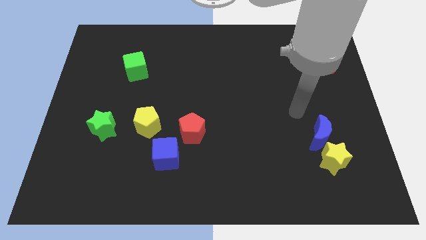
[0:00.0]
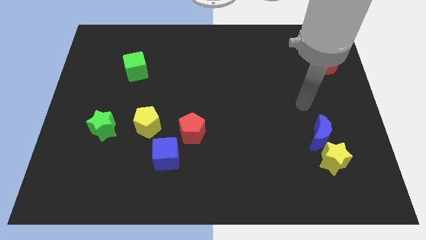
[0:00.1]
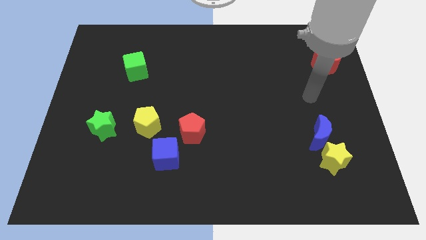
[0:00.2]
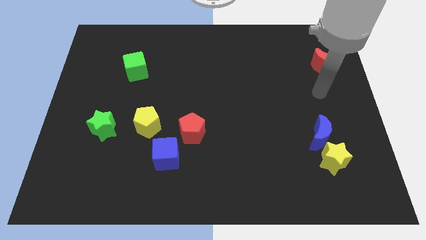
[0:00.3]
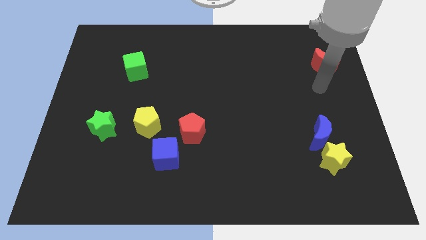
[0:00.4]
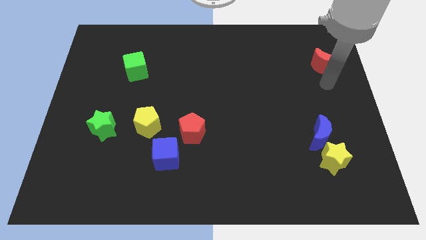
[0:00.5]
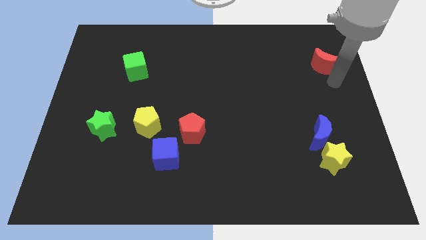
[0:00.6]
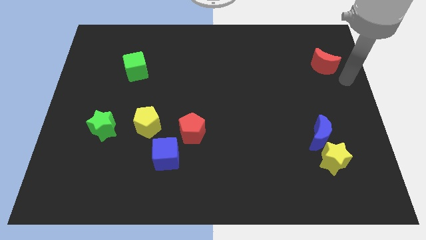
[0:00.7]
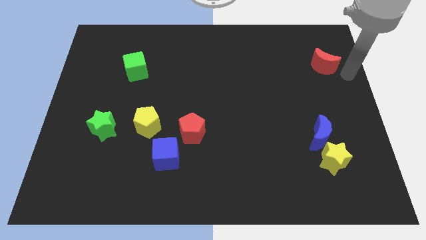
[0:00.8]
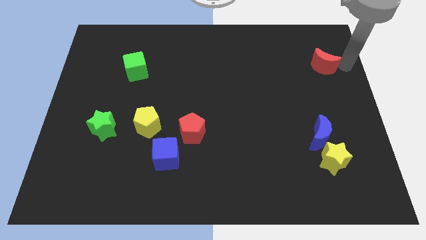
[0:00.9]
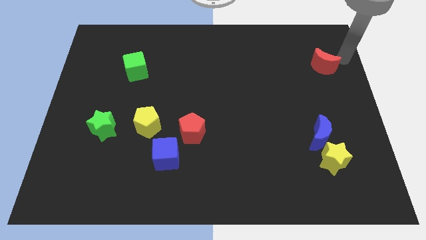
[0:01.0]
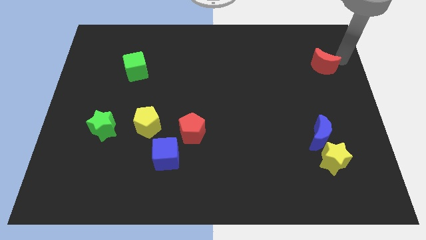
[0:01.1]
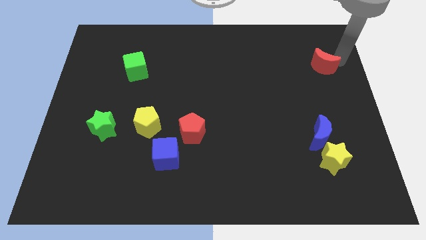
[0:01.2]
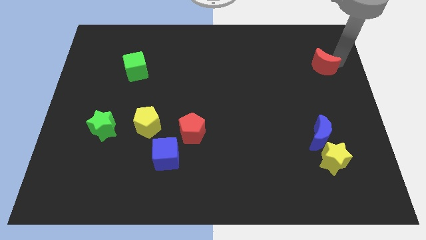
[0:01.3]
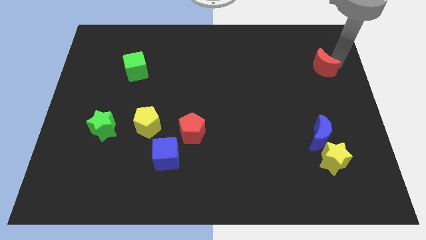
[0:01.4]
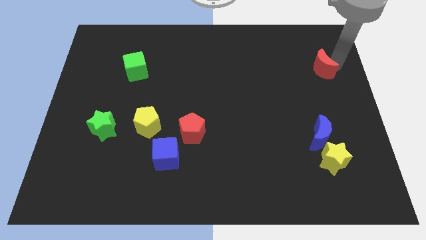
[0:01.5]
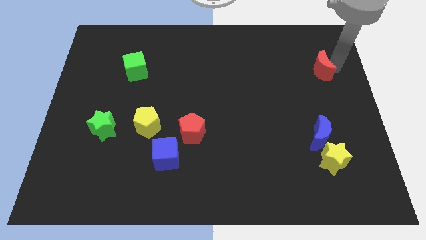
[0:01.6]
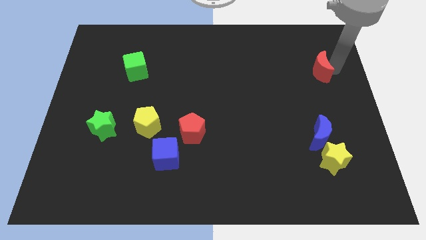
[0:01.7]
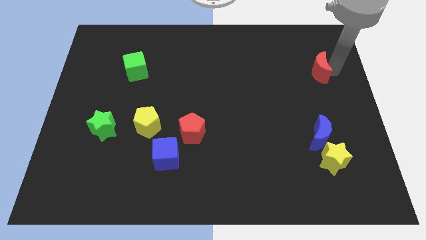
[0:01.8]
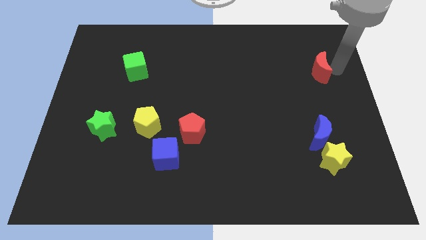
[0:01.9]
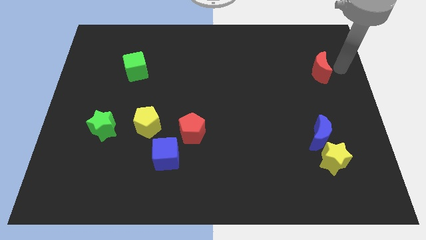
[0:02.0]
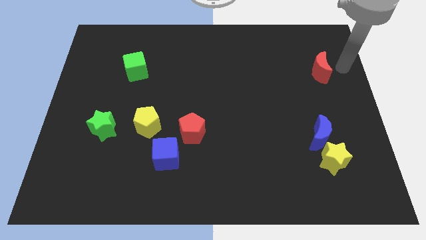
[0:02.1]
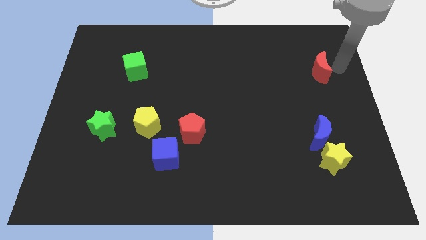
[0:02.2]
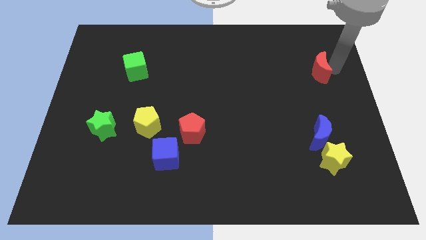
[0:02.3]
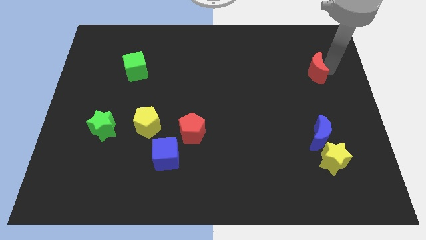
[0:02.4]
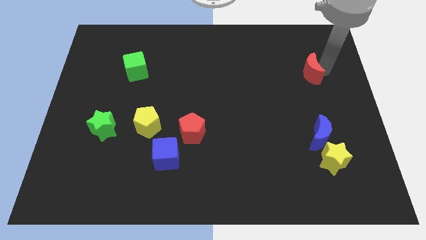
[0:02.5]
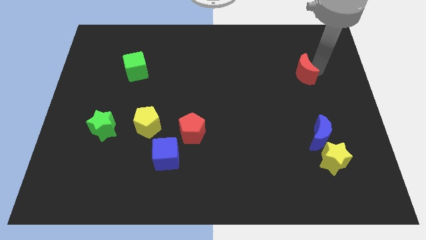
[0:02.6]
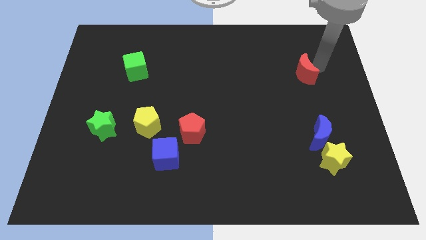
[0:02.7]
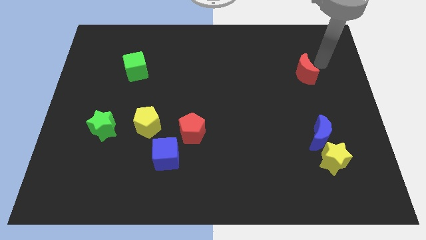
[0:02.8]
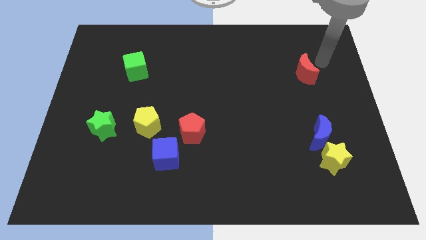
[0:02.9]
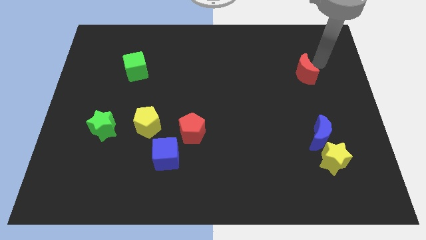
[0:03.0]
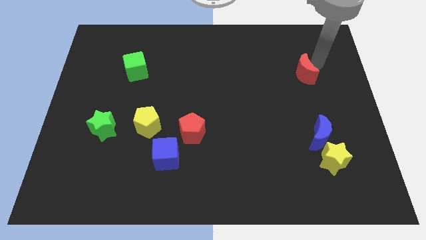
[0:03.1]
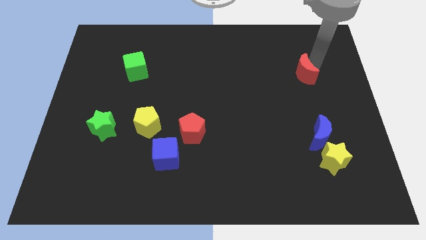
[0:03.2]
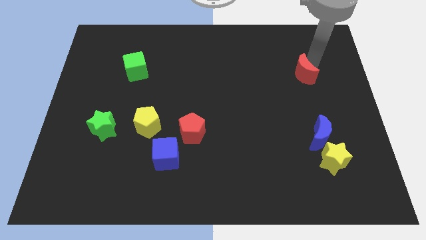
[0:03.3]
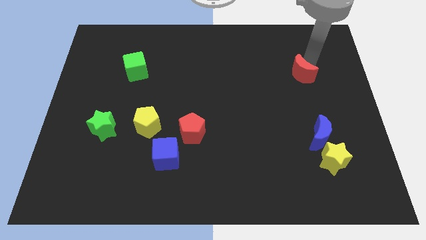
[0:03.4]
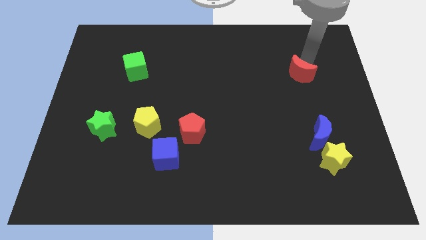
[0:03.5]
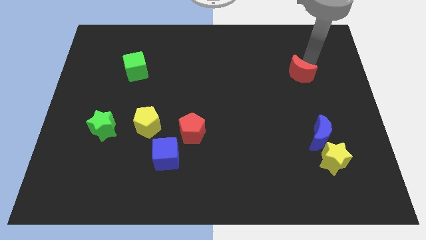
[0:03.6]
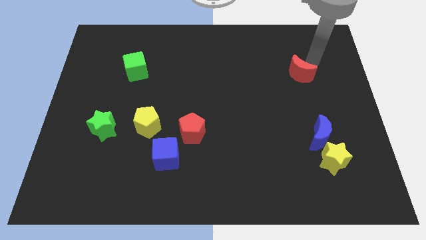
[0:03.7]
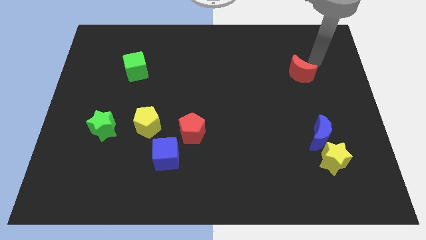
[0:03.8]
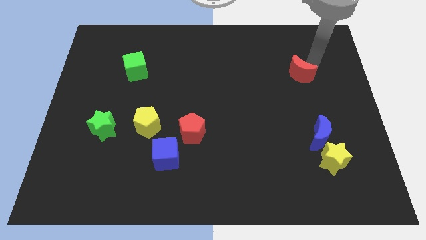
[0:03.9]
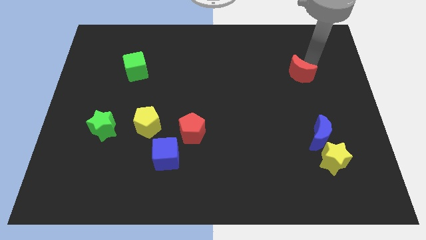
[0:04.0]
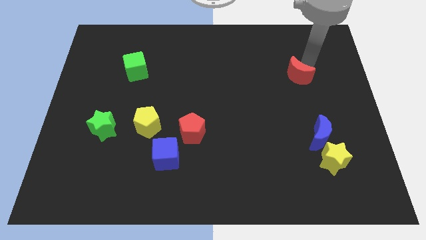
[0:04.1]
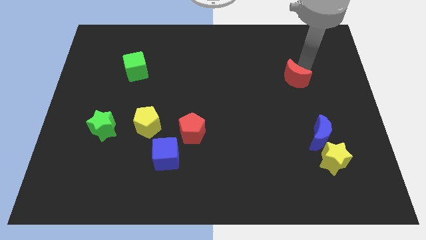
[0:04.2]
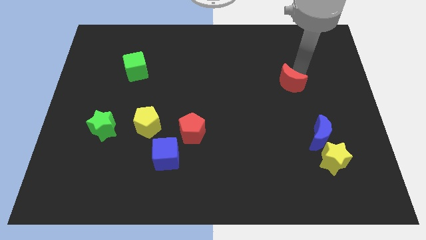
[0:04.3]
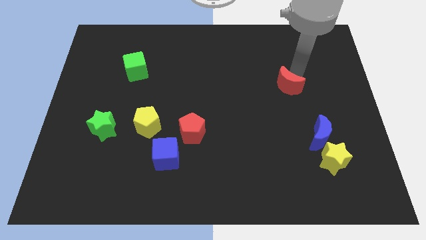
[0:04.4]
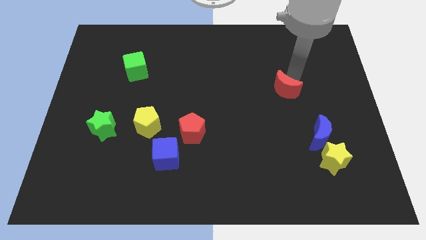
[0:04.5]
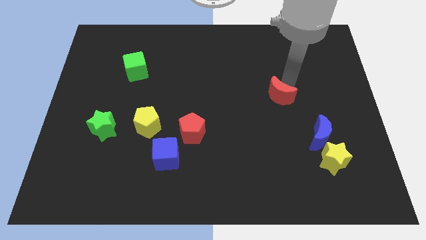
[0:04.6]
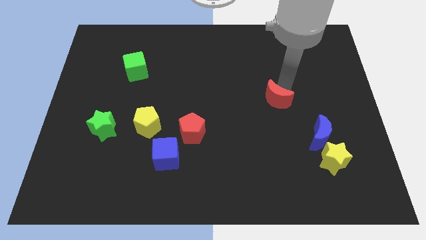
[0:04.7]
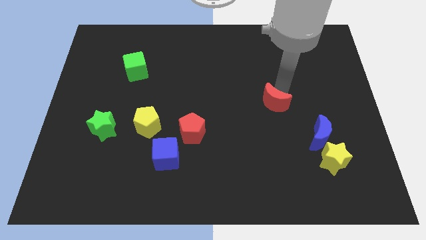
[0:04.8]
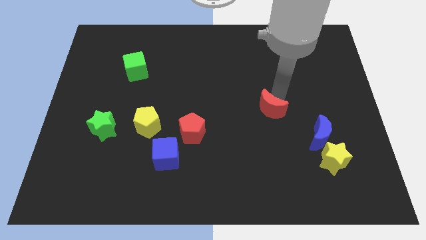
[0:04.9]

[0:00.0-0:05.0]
slide the red moon downwards and to the left

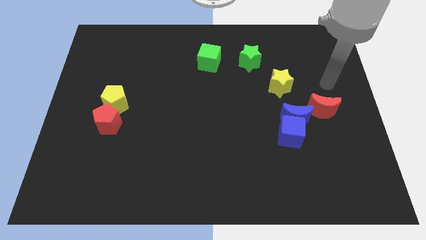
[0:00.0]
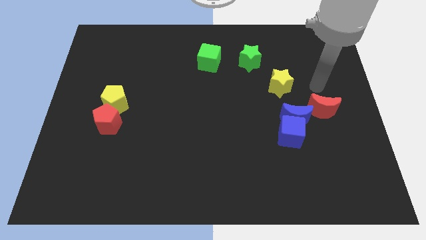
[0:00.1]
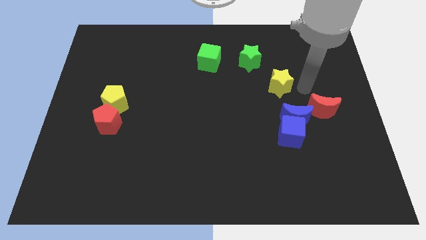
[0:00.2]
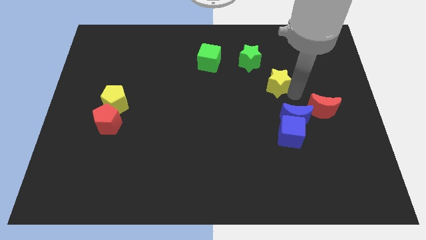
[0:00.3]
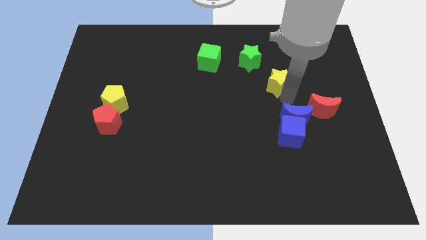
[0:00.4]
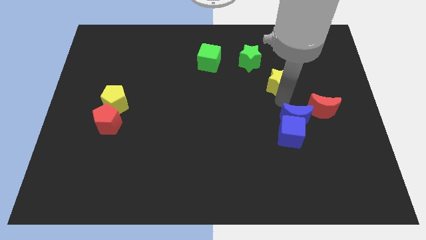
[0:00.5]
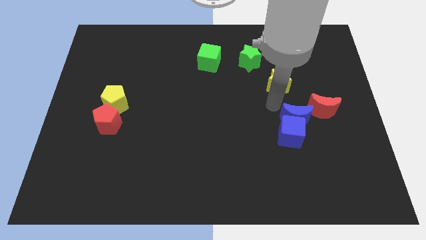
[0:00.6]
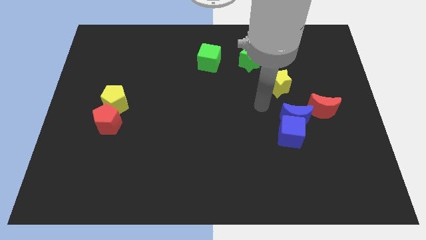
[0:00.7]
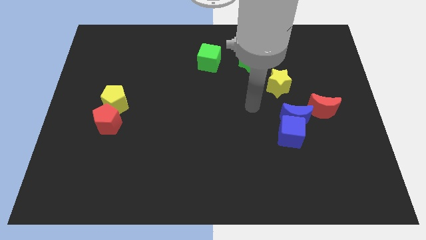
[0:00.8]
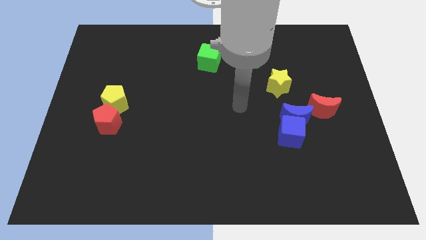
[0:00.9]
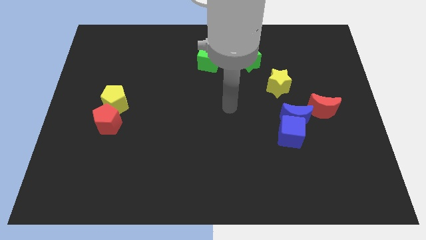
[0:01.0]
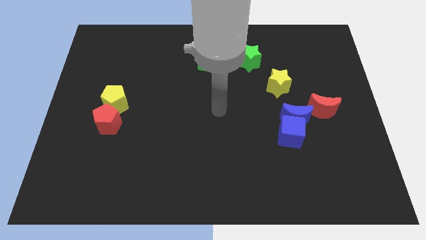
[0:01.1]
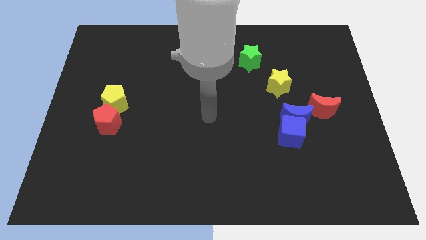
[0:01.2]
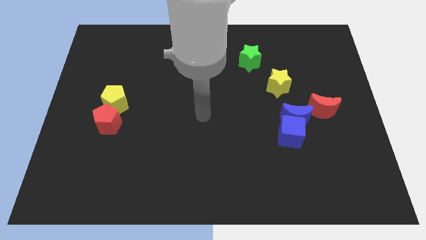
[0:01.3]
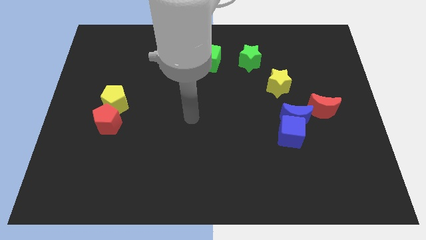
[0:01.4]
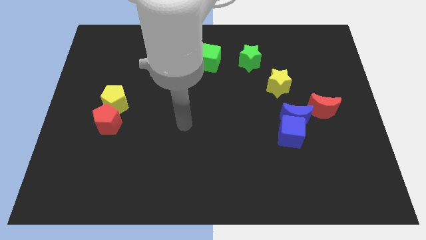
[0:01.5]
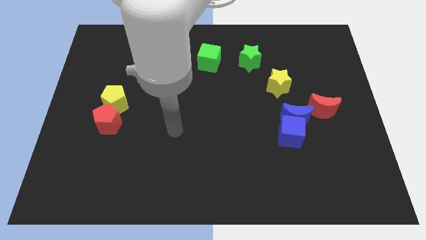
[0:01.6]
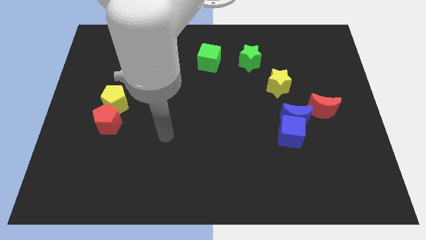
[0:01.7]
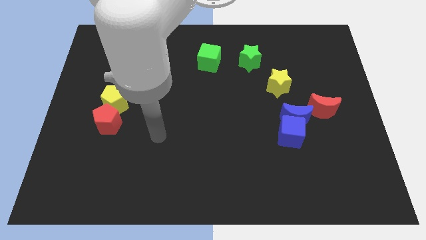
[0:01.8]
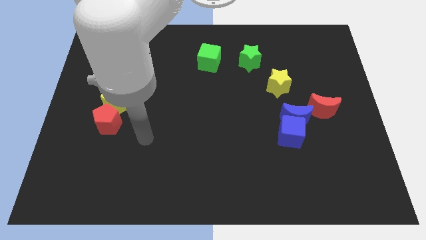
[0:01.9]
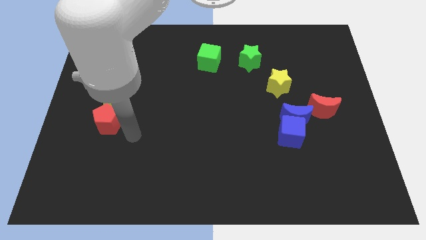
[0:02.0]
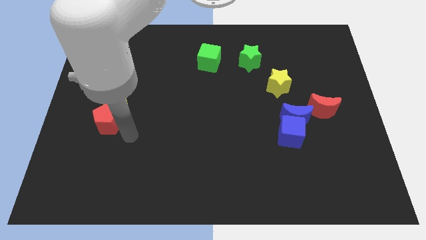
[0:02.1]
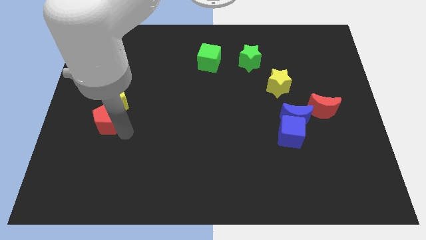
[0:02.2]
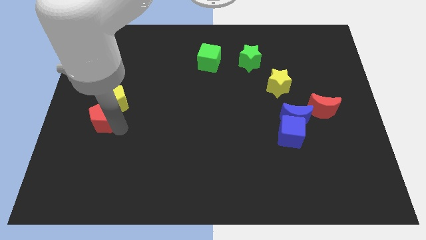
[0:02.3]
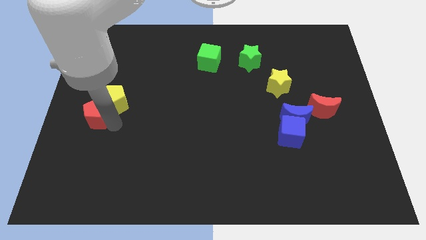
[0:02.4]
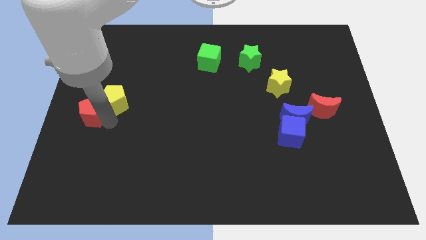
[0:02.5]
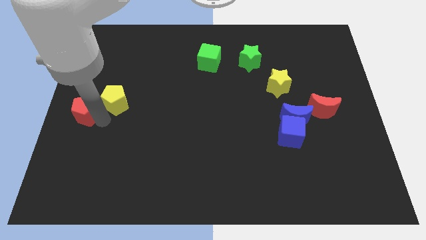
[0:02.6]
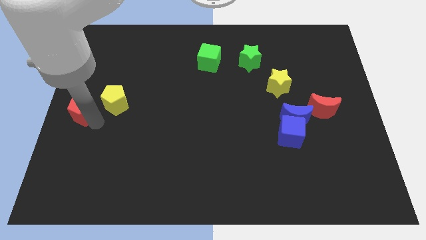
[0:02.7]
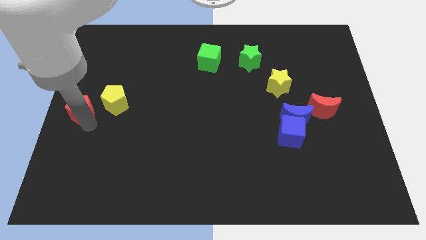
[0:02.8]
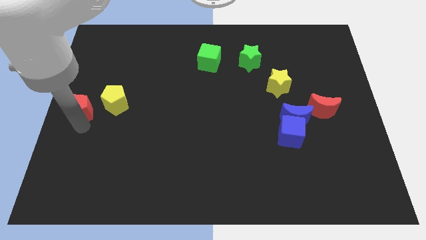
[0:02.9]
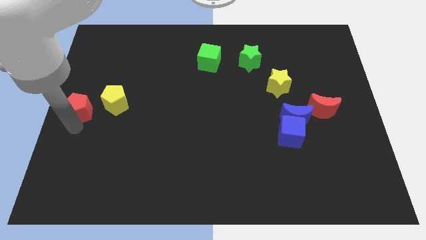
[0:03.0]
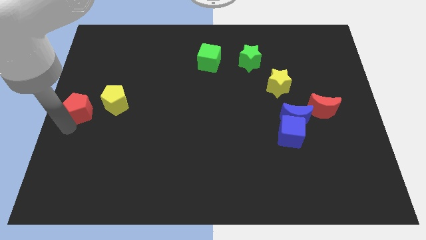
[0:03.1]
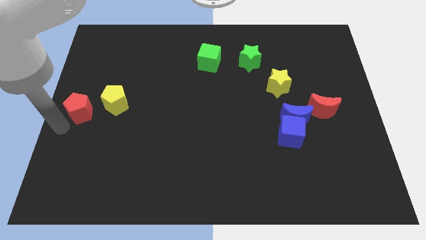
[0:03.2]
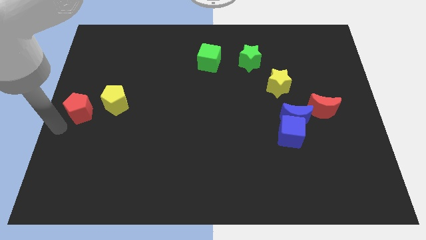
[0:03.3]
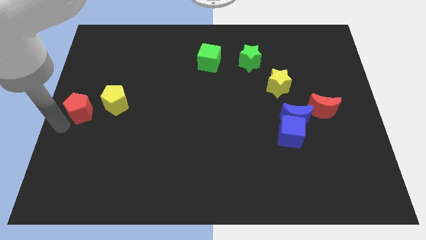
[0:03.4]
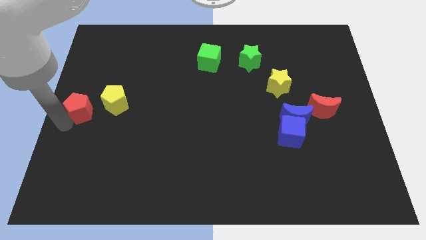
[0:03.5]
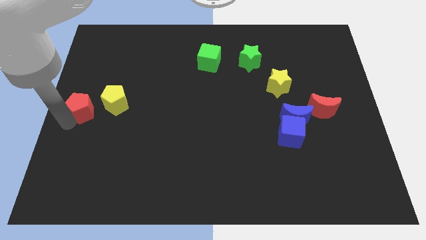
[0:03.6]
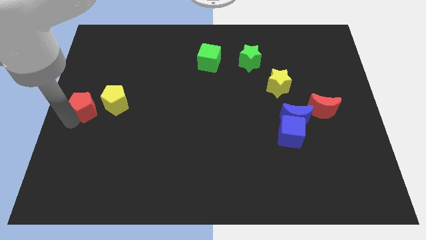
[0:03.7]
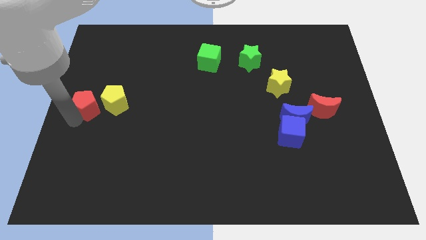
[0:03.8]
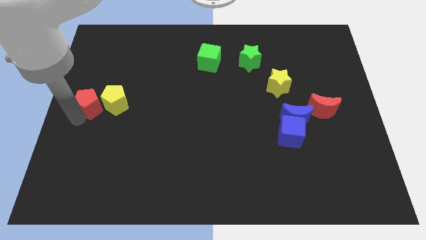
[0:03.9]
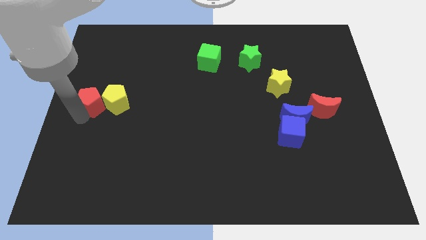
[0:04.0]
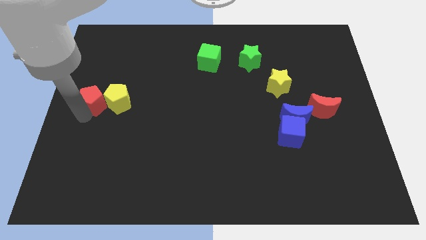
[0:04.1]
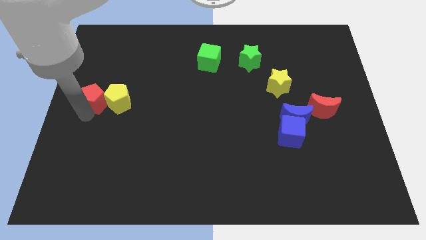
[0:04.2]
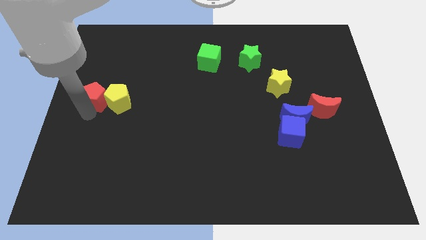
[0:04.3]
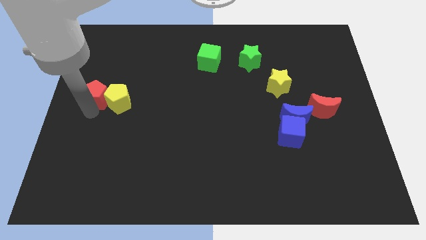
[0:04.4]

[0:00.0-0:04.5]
push the red pentagon upwards slightly
